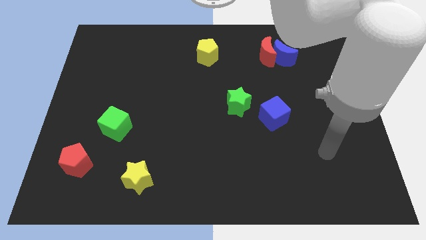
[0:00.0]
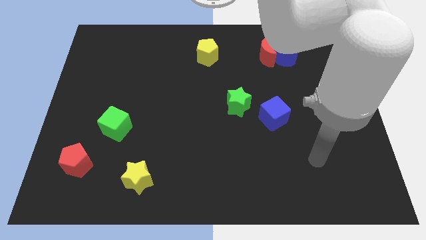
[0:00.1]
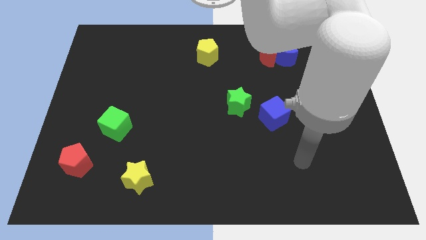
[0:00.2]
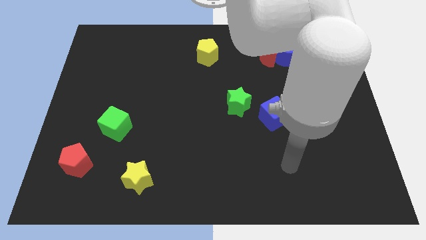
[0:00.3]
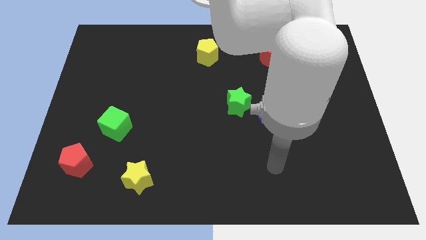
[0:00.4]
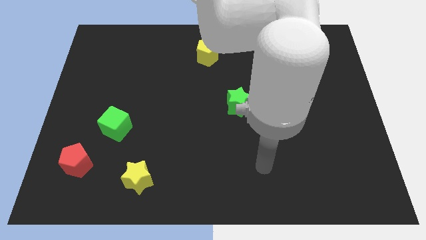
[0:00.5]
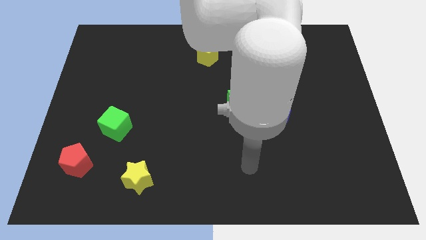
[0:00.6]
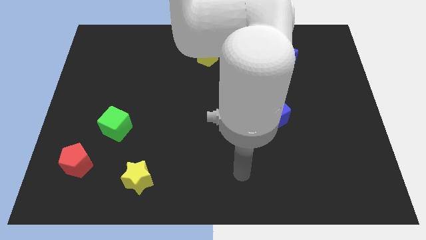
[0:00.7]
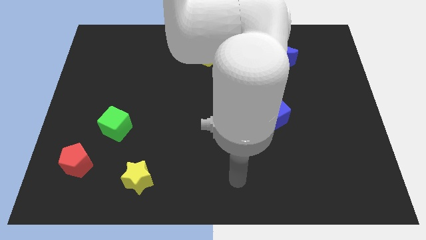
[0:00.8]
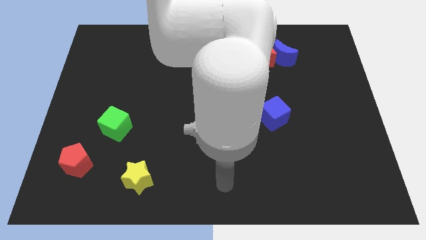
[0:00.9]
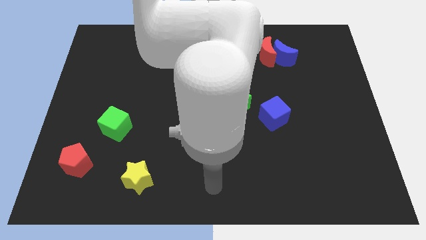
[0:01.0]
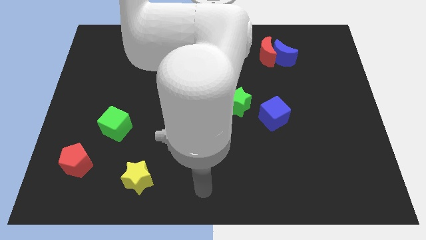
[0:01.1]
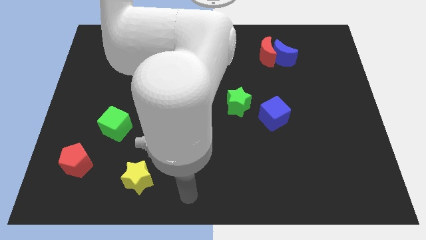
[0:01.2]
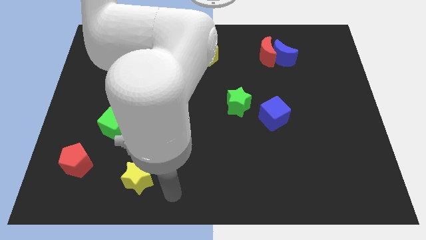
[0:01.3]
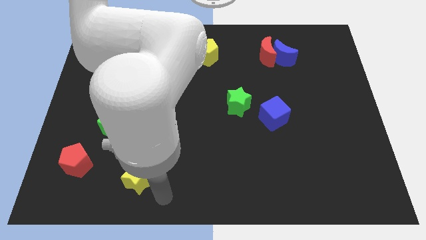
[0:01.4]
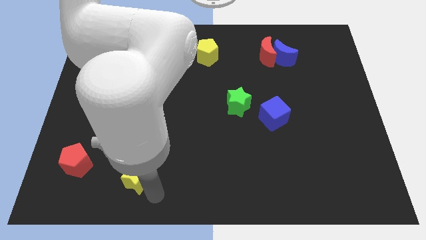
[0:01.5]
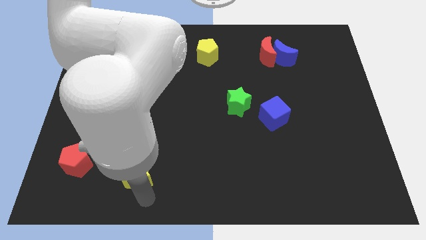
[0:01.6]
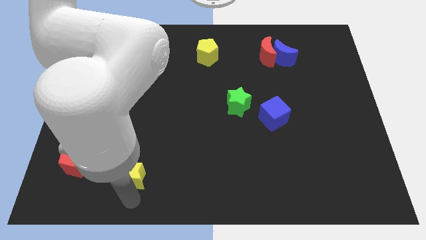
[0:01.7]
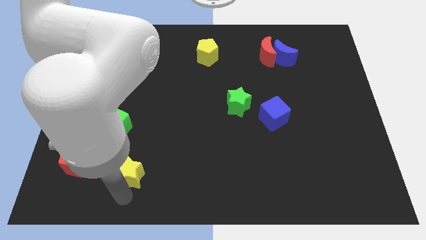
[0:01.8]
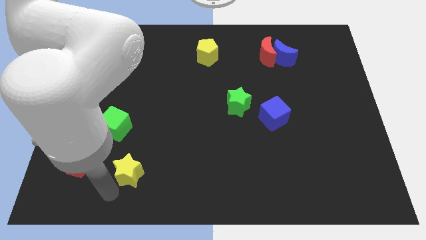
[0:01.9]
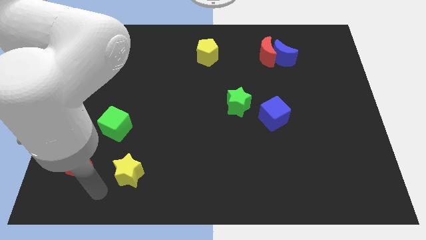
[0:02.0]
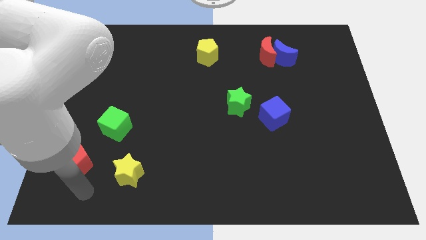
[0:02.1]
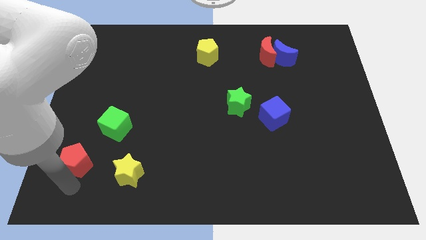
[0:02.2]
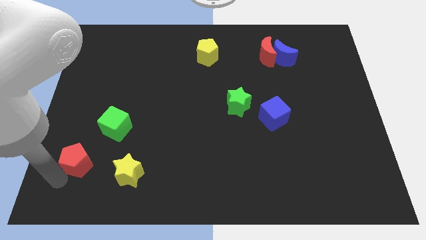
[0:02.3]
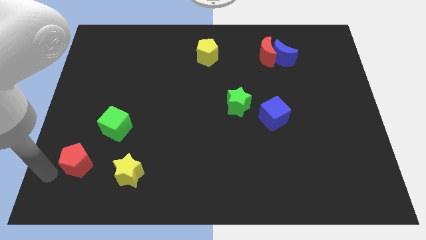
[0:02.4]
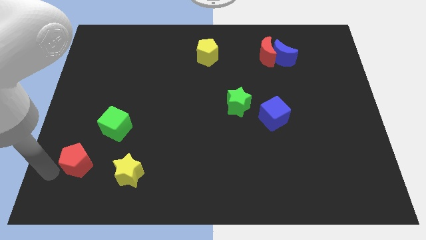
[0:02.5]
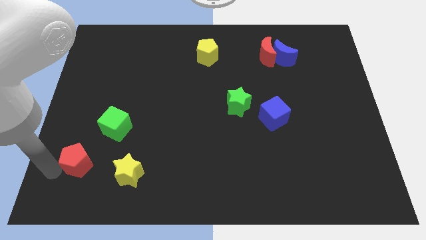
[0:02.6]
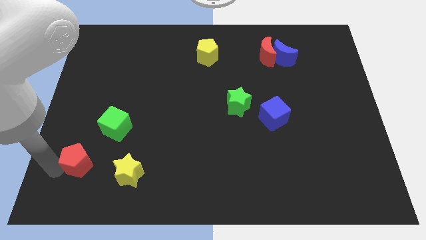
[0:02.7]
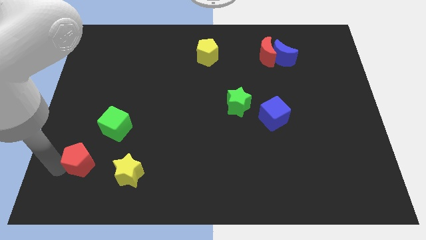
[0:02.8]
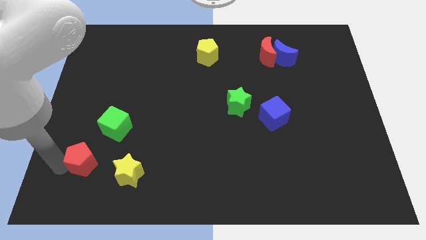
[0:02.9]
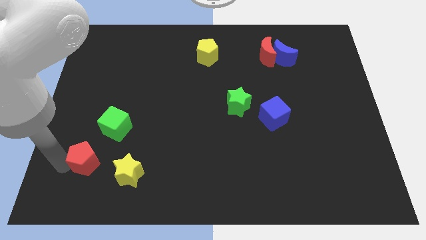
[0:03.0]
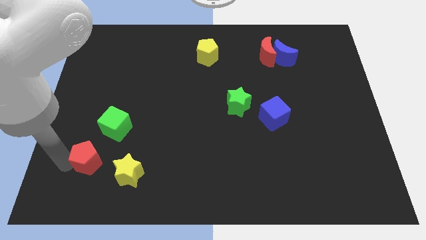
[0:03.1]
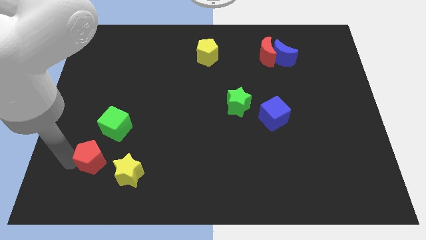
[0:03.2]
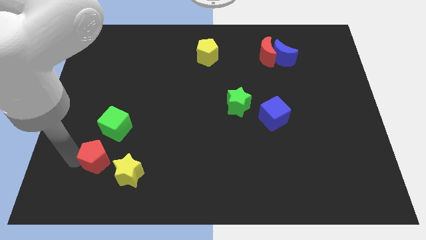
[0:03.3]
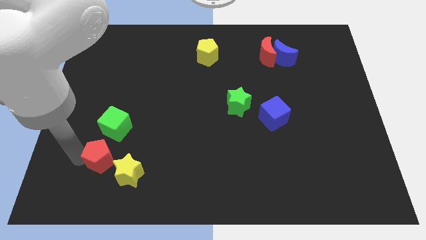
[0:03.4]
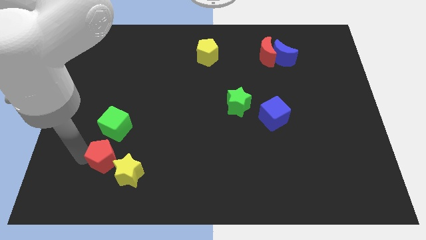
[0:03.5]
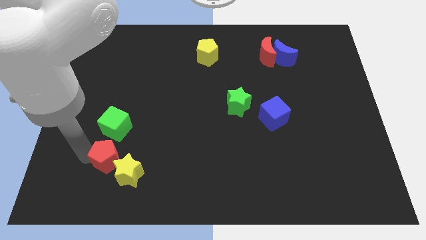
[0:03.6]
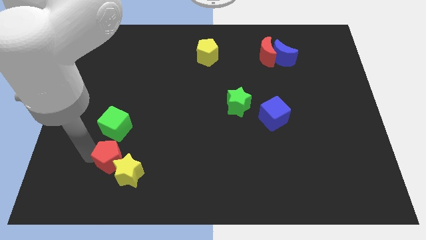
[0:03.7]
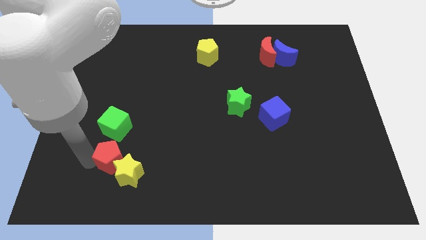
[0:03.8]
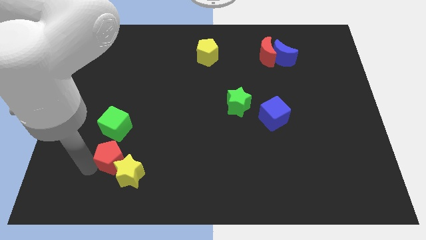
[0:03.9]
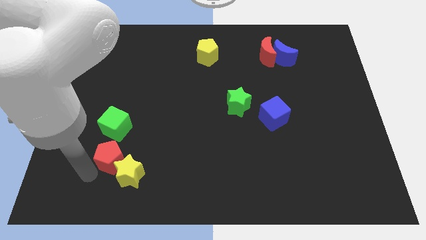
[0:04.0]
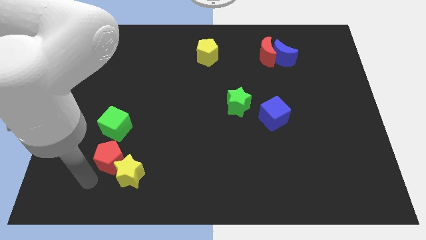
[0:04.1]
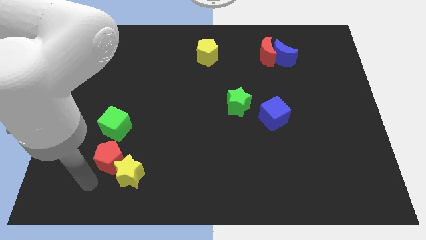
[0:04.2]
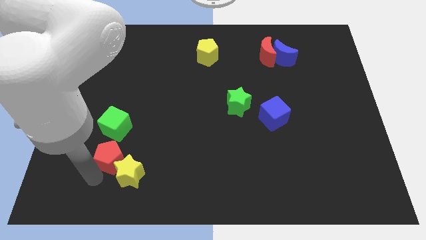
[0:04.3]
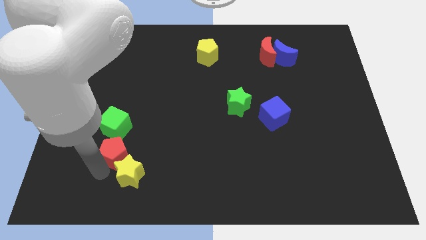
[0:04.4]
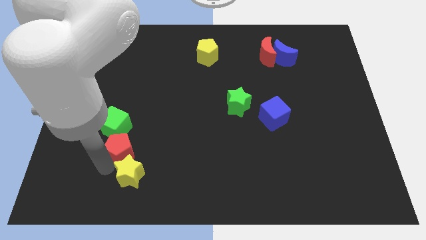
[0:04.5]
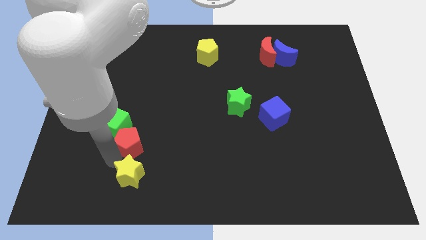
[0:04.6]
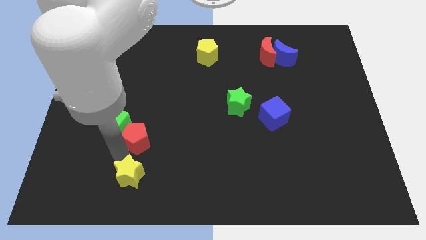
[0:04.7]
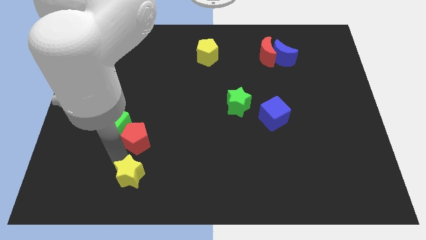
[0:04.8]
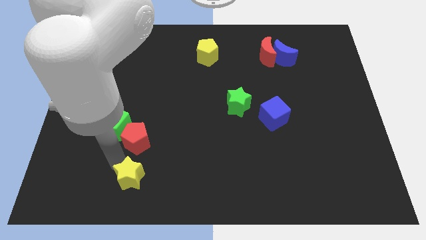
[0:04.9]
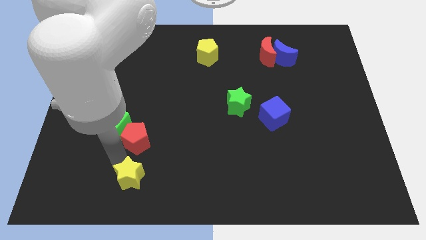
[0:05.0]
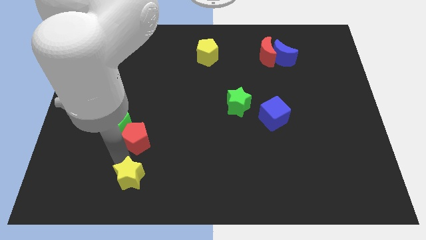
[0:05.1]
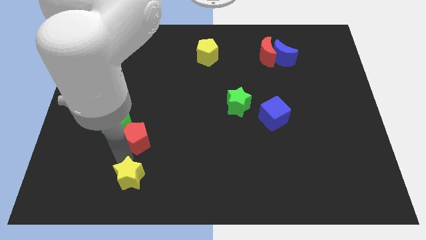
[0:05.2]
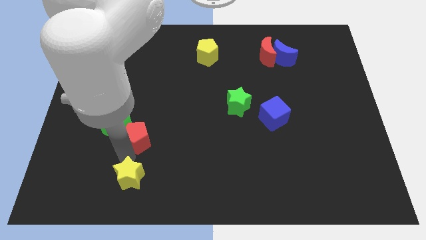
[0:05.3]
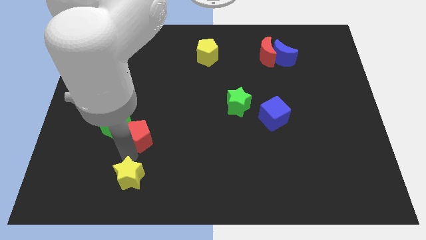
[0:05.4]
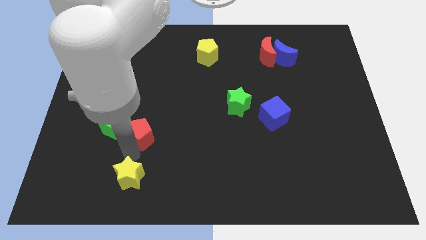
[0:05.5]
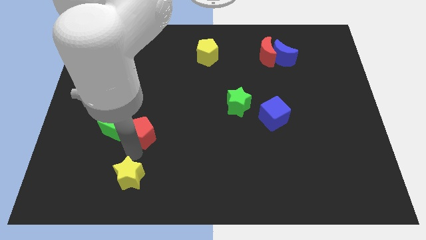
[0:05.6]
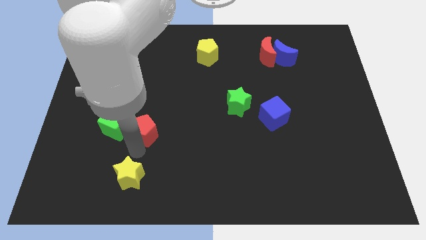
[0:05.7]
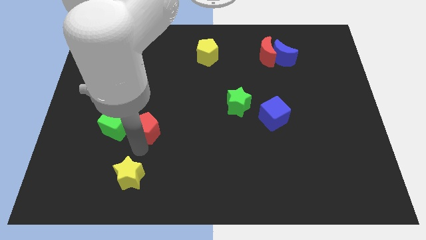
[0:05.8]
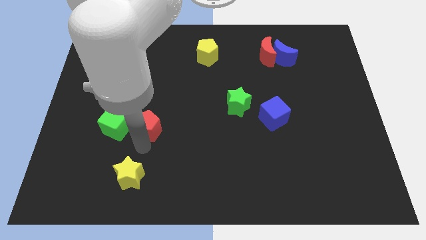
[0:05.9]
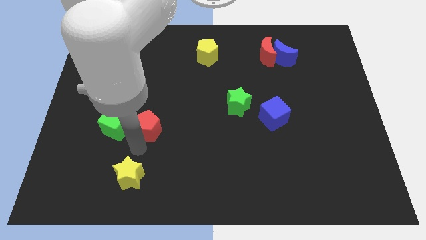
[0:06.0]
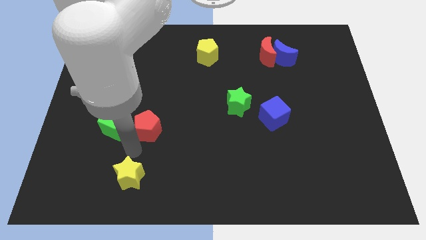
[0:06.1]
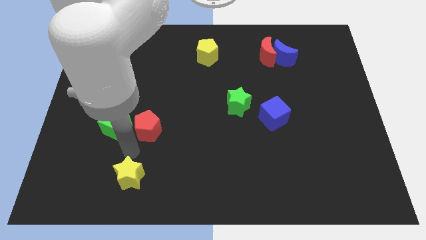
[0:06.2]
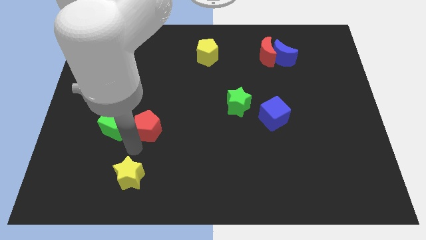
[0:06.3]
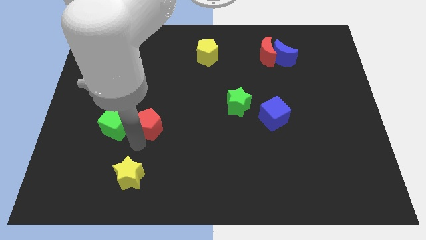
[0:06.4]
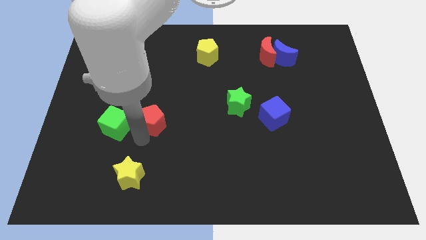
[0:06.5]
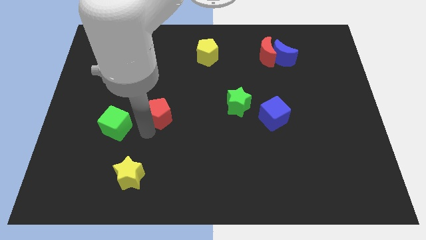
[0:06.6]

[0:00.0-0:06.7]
push the red pentagon up and to the right

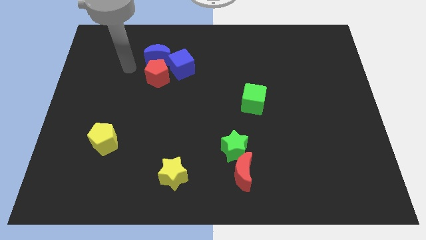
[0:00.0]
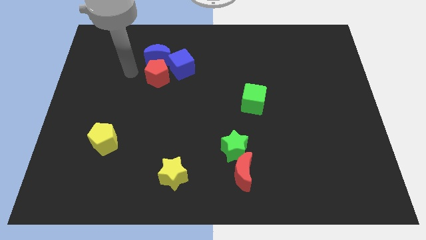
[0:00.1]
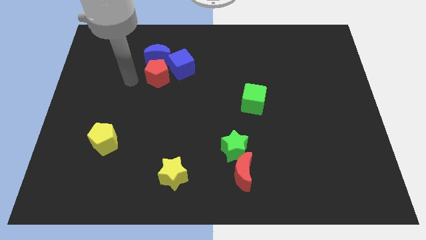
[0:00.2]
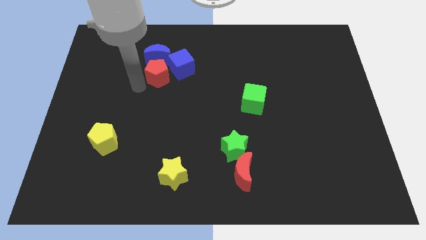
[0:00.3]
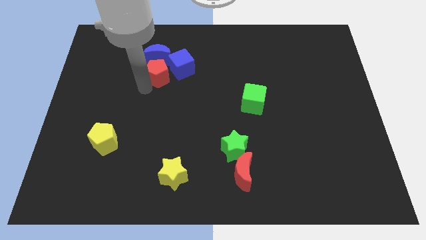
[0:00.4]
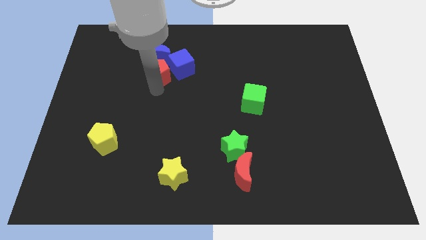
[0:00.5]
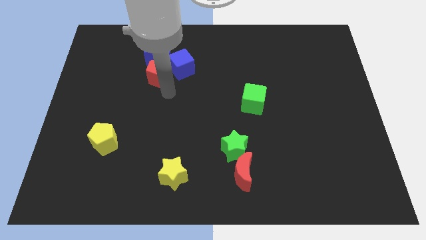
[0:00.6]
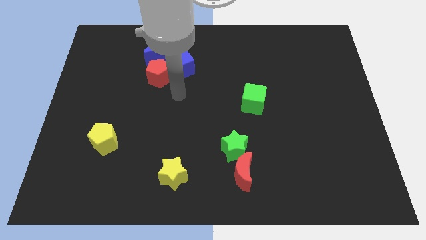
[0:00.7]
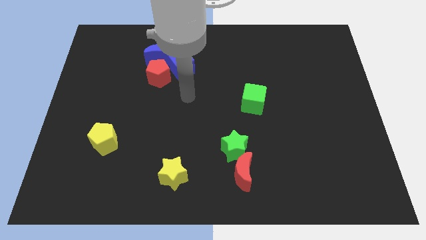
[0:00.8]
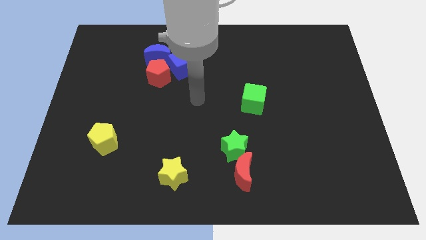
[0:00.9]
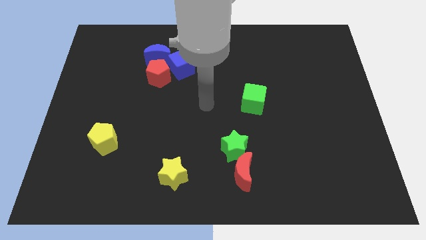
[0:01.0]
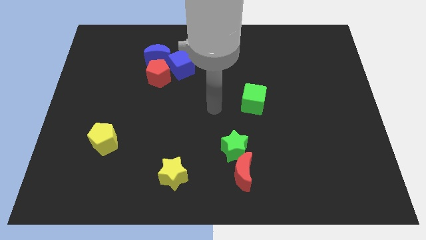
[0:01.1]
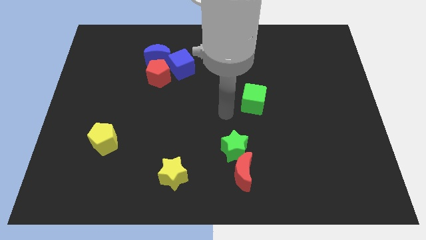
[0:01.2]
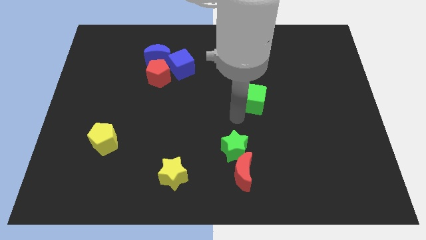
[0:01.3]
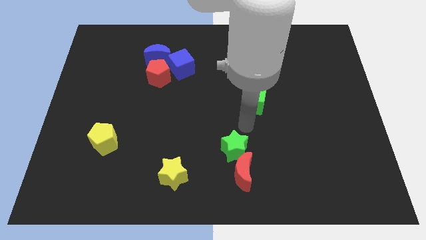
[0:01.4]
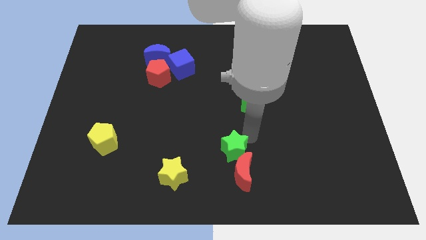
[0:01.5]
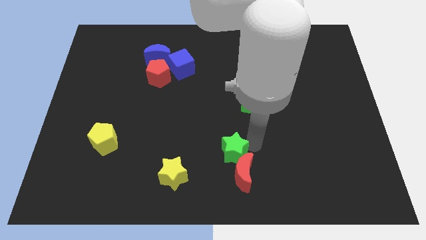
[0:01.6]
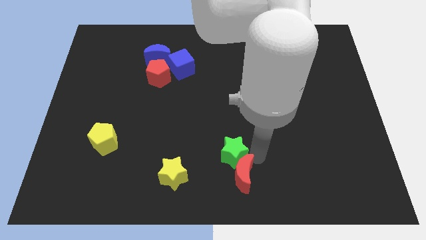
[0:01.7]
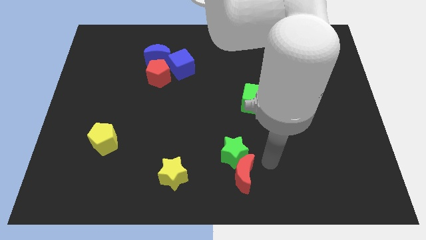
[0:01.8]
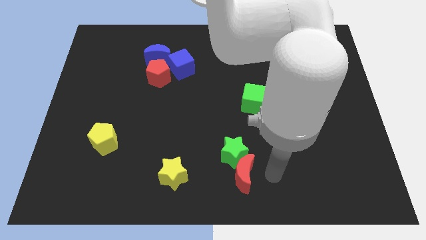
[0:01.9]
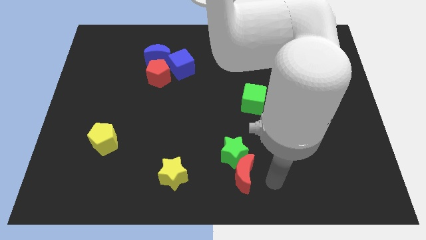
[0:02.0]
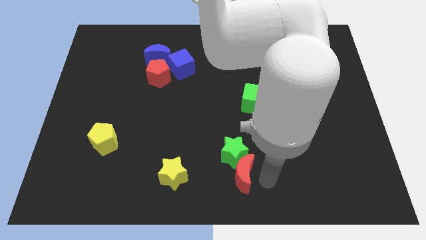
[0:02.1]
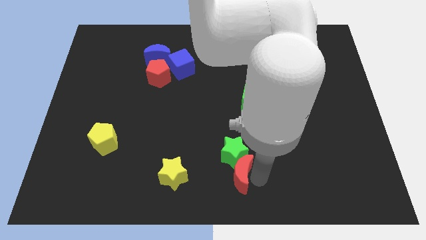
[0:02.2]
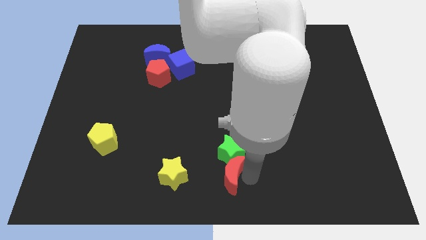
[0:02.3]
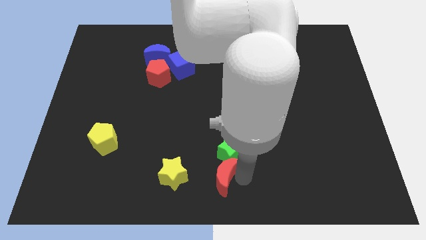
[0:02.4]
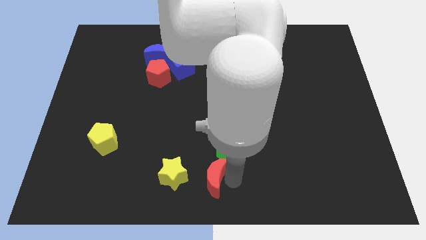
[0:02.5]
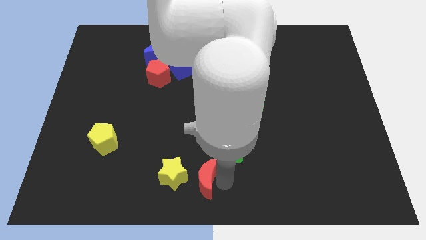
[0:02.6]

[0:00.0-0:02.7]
slightly slide the red moon to the left
